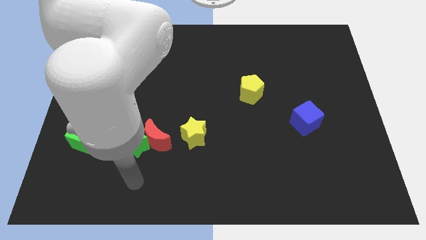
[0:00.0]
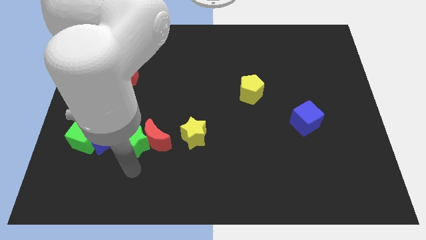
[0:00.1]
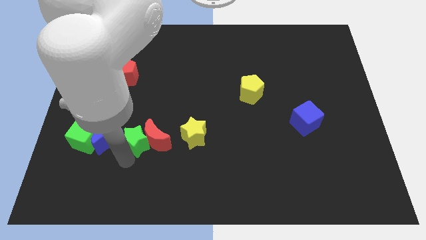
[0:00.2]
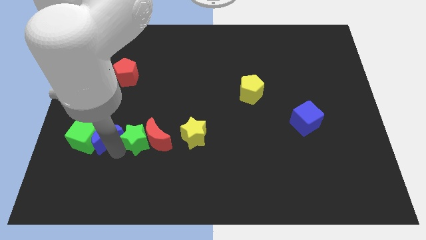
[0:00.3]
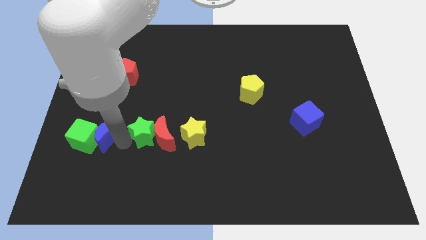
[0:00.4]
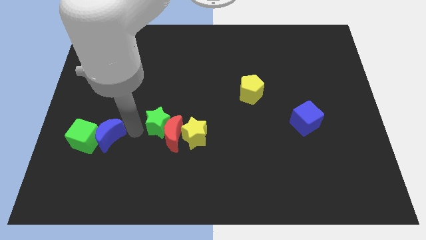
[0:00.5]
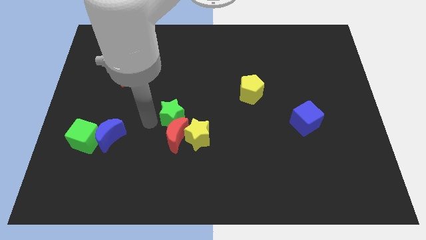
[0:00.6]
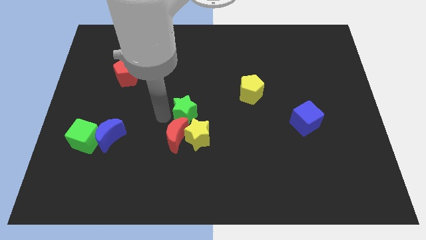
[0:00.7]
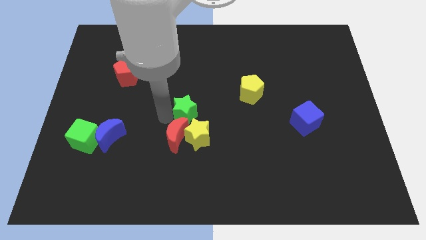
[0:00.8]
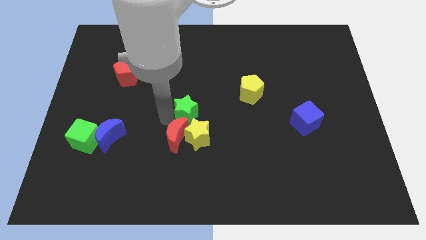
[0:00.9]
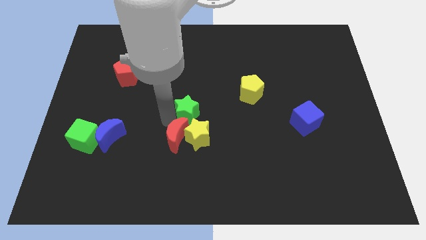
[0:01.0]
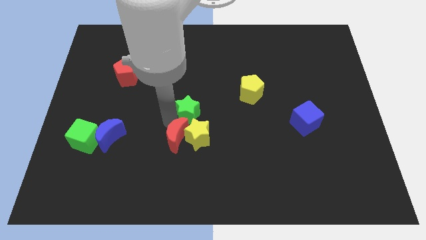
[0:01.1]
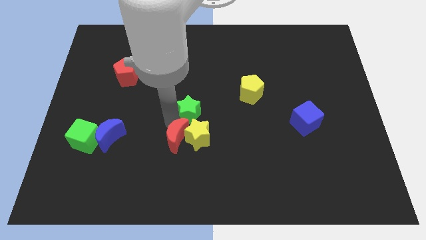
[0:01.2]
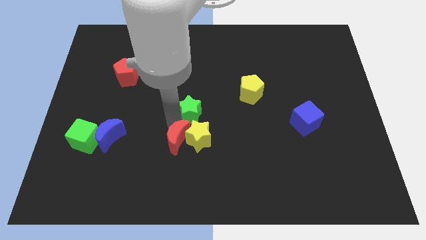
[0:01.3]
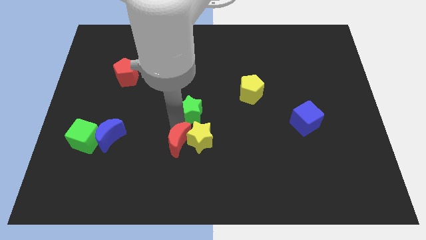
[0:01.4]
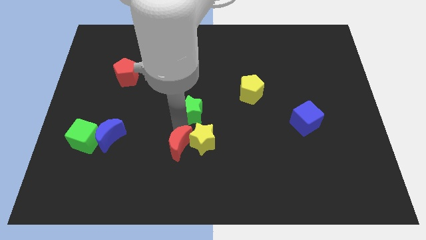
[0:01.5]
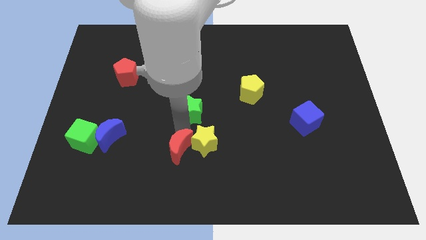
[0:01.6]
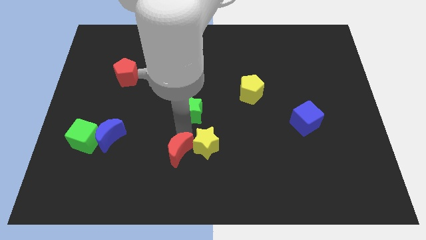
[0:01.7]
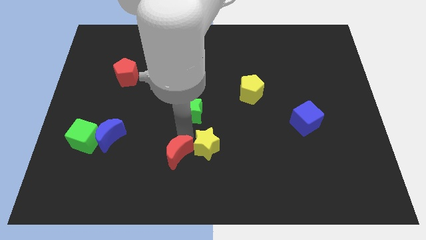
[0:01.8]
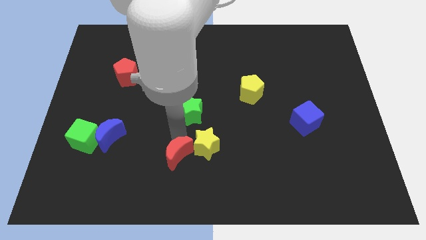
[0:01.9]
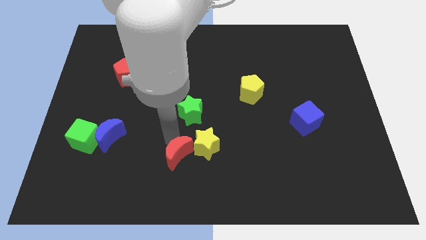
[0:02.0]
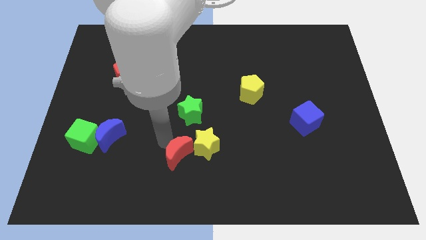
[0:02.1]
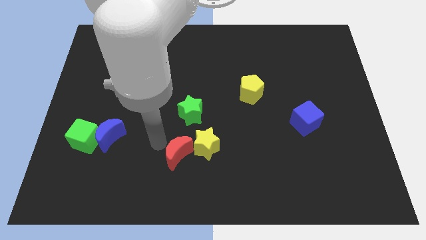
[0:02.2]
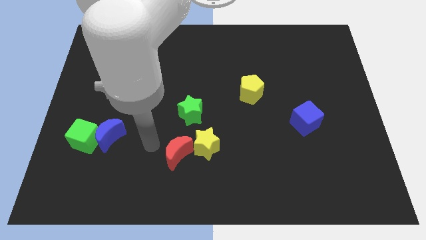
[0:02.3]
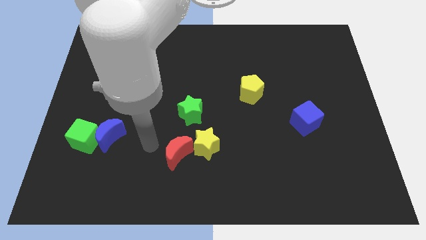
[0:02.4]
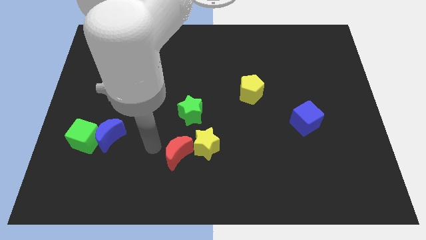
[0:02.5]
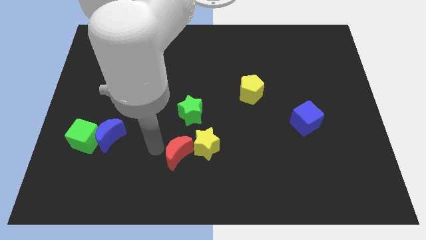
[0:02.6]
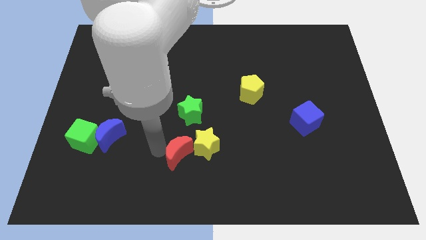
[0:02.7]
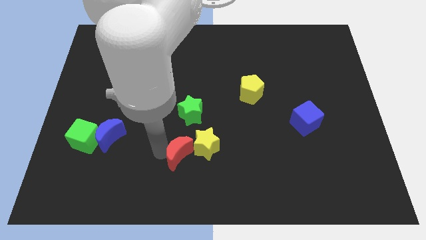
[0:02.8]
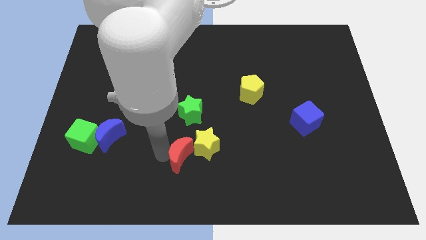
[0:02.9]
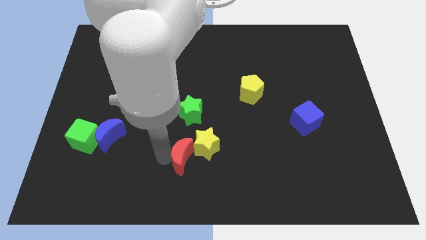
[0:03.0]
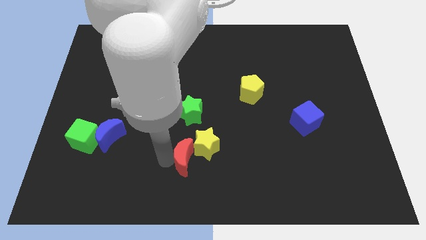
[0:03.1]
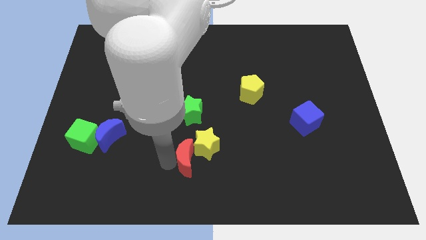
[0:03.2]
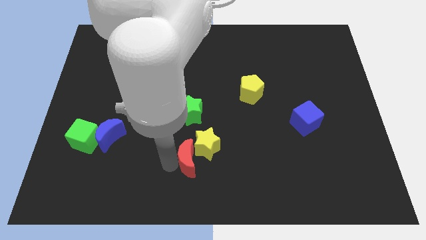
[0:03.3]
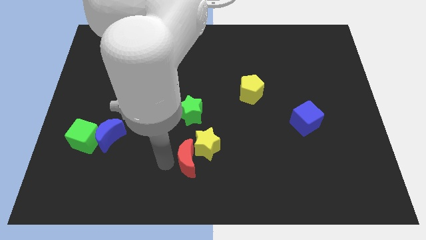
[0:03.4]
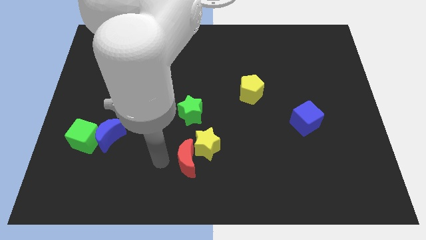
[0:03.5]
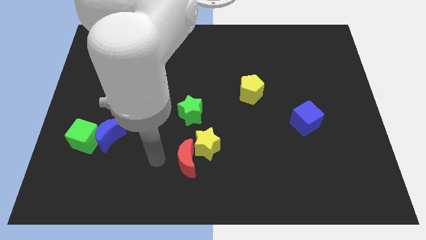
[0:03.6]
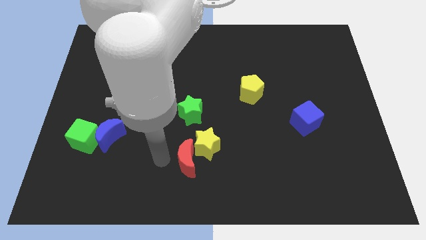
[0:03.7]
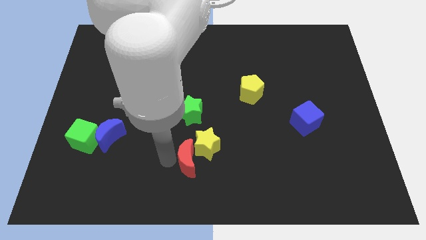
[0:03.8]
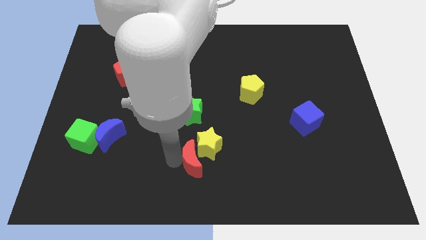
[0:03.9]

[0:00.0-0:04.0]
move the red moon somewhat right

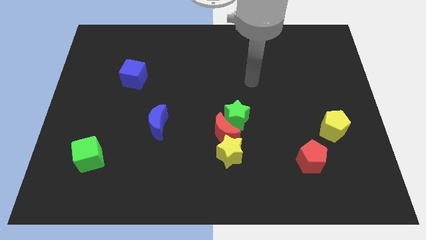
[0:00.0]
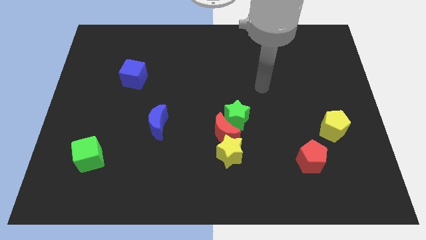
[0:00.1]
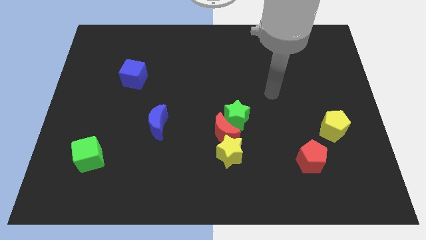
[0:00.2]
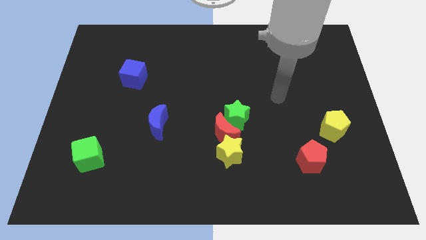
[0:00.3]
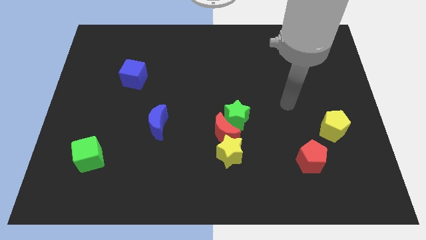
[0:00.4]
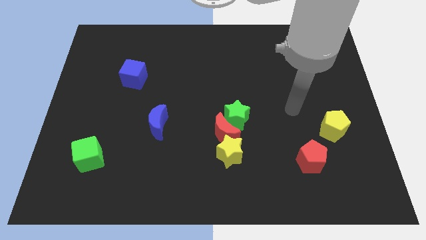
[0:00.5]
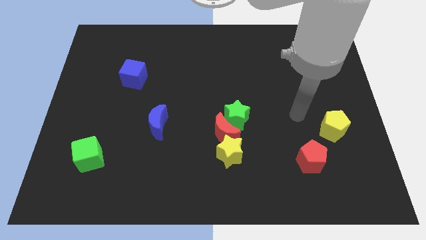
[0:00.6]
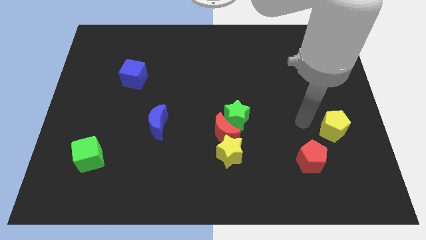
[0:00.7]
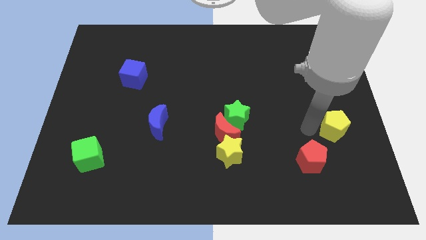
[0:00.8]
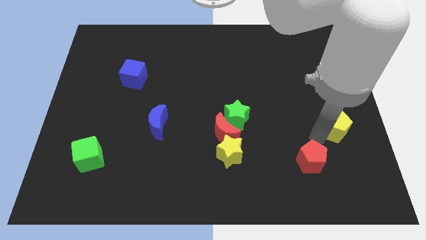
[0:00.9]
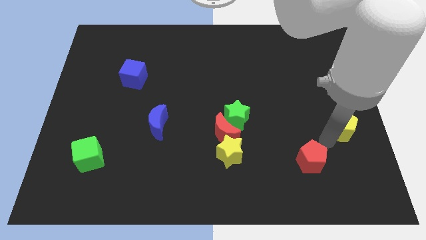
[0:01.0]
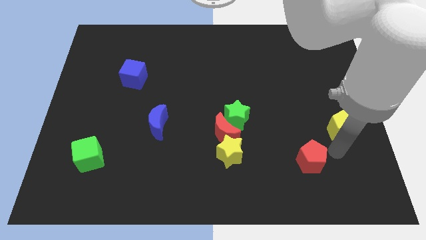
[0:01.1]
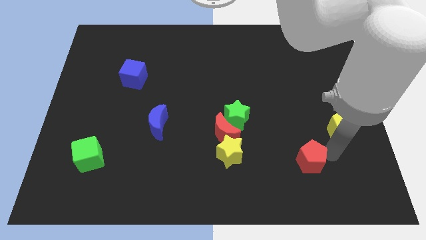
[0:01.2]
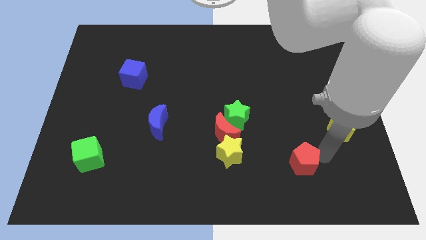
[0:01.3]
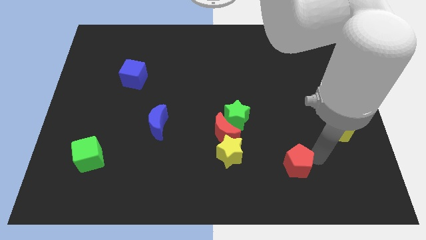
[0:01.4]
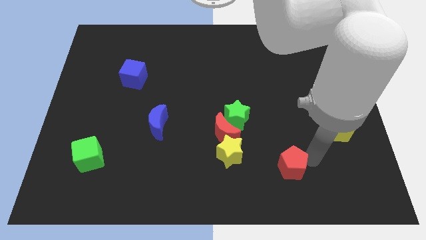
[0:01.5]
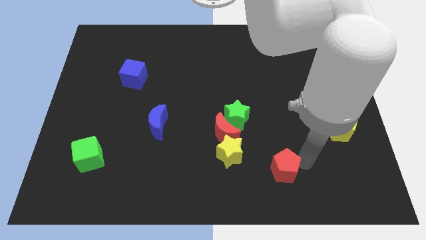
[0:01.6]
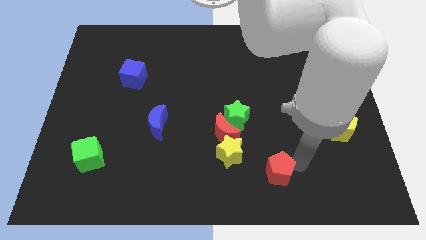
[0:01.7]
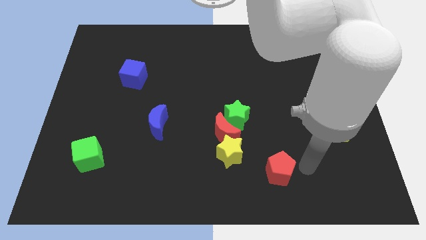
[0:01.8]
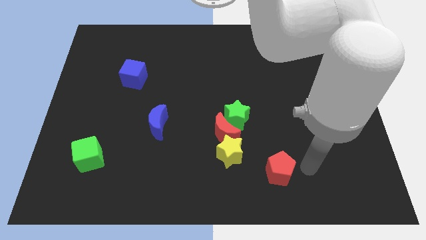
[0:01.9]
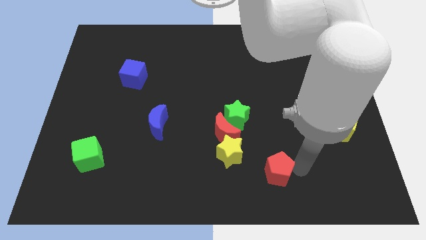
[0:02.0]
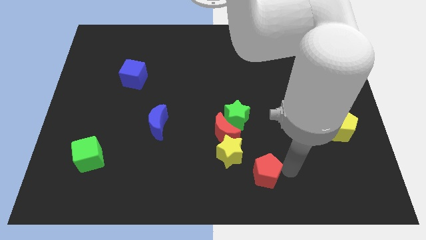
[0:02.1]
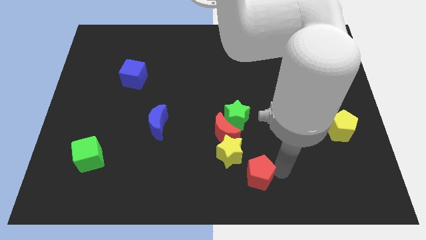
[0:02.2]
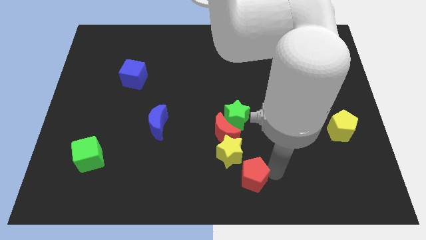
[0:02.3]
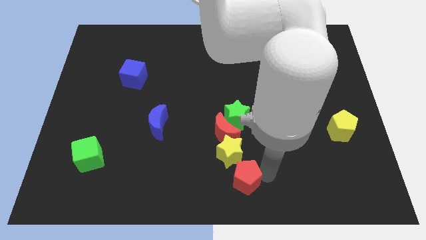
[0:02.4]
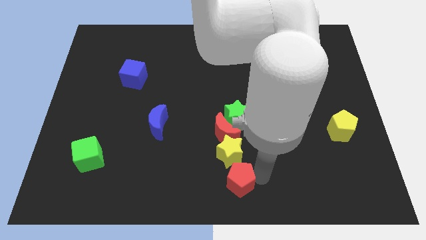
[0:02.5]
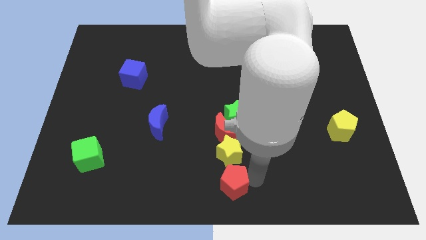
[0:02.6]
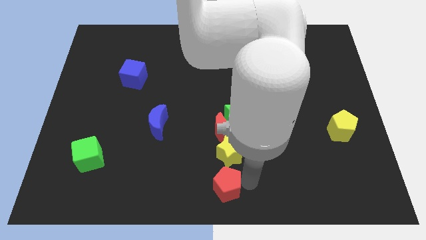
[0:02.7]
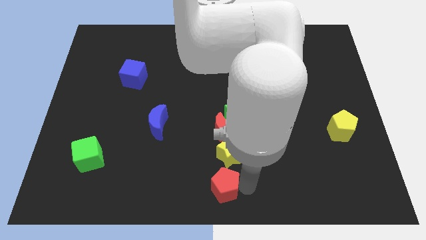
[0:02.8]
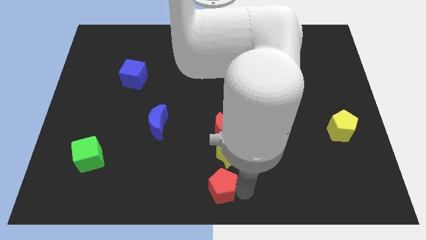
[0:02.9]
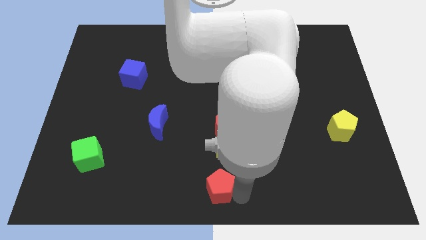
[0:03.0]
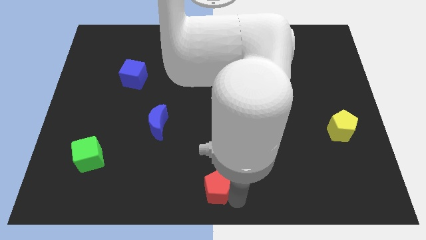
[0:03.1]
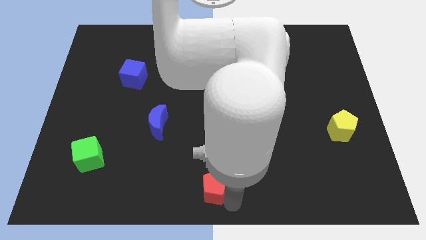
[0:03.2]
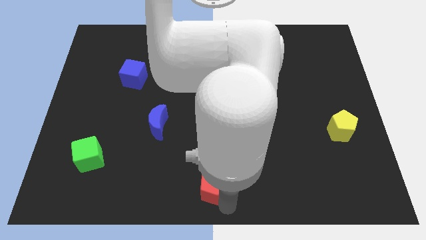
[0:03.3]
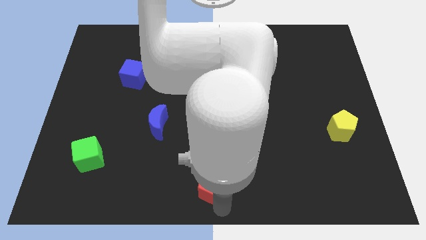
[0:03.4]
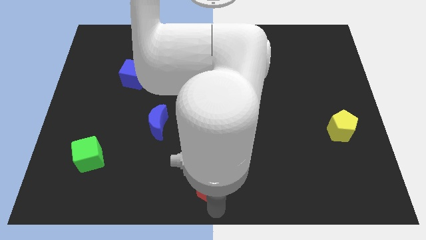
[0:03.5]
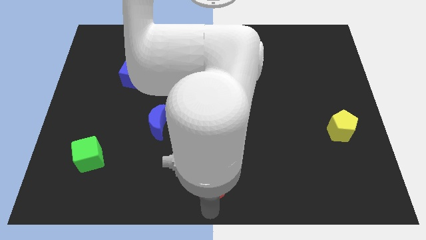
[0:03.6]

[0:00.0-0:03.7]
slide the red pentagon left

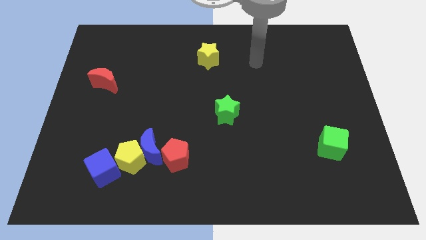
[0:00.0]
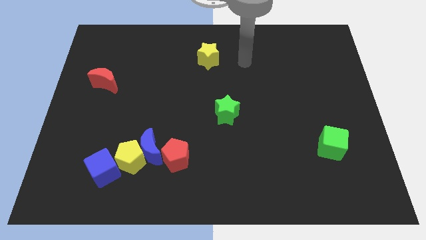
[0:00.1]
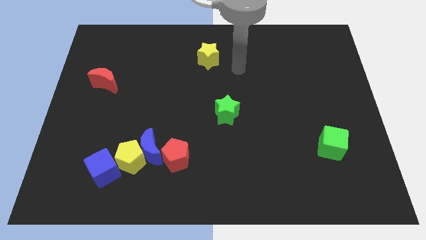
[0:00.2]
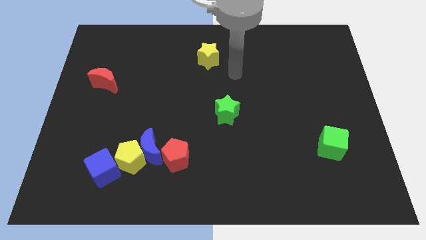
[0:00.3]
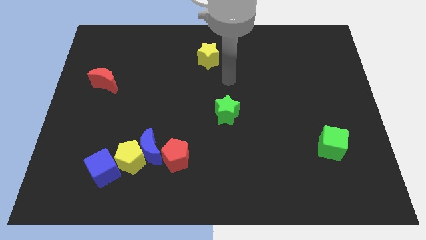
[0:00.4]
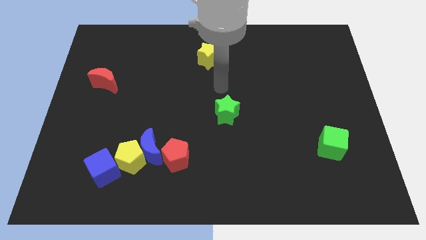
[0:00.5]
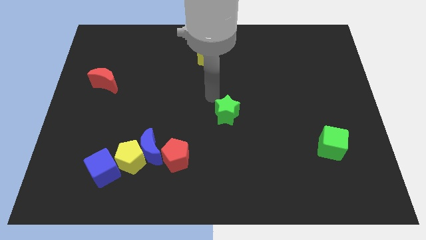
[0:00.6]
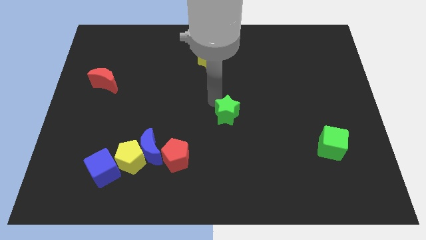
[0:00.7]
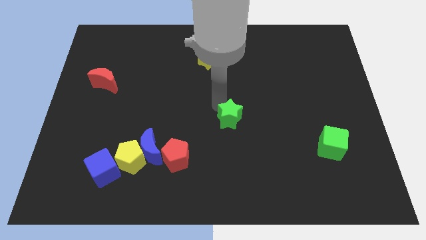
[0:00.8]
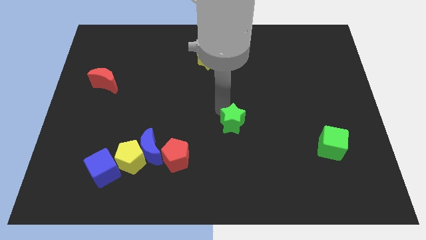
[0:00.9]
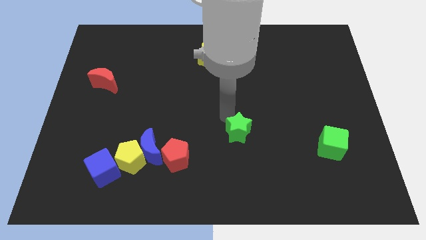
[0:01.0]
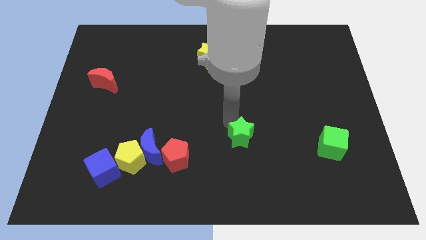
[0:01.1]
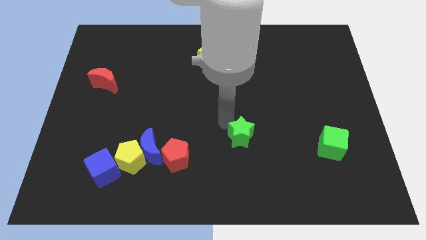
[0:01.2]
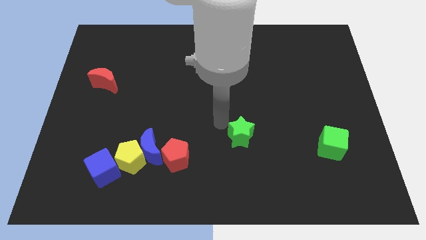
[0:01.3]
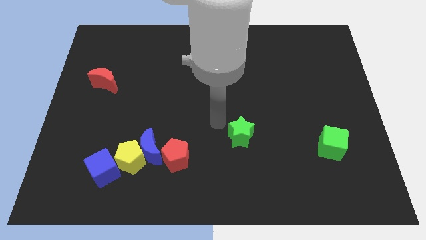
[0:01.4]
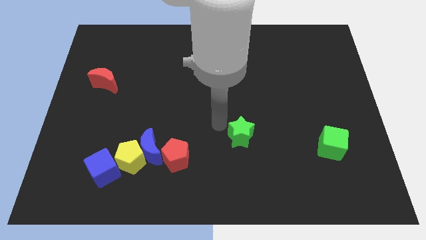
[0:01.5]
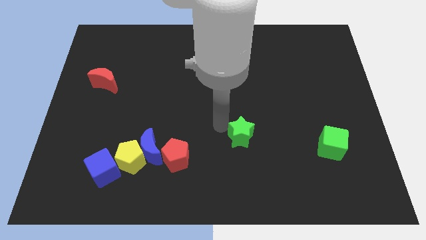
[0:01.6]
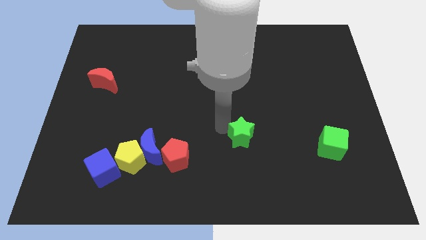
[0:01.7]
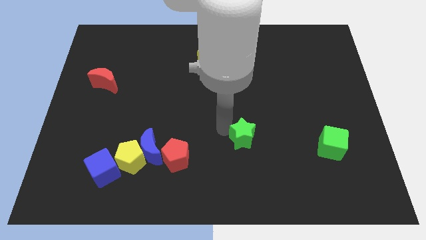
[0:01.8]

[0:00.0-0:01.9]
slightly move the green star down and right diagonally
